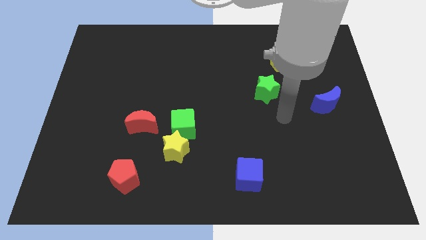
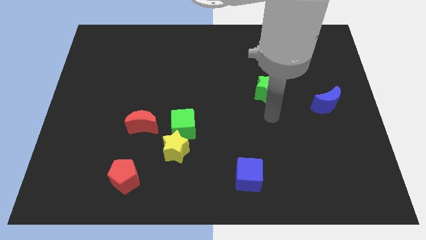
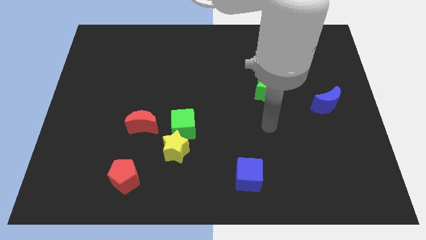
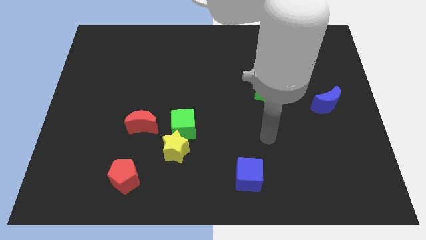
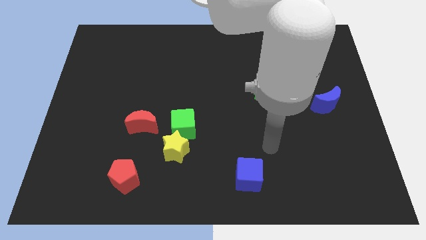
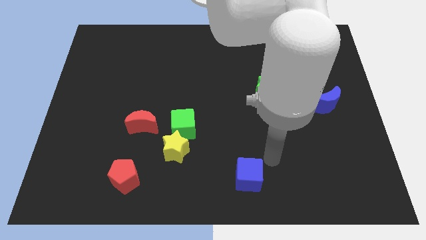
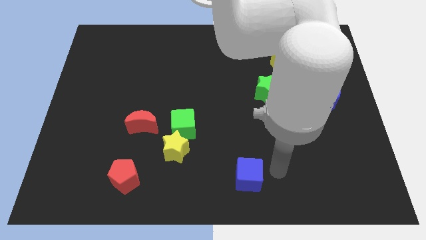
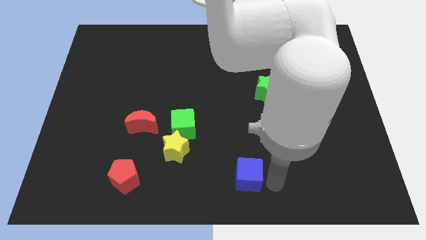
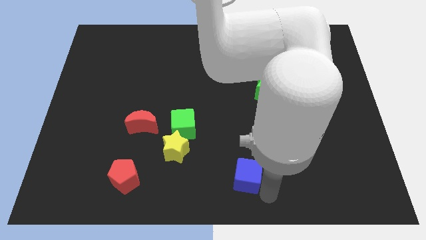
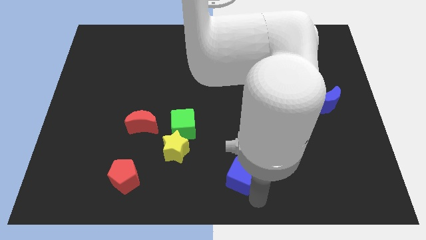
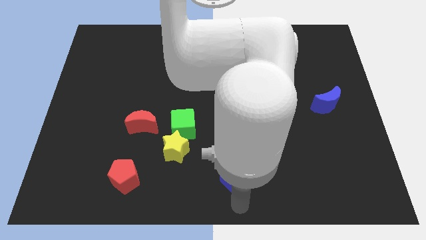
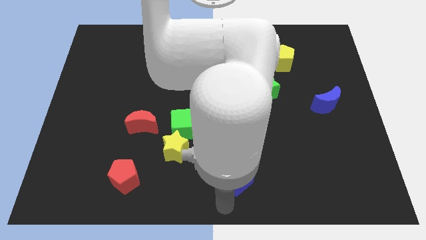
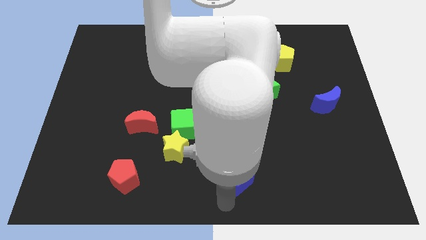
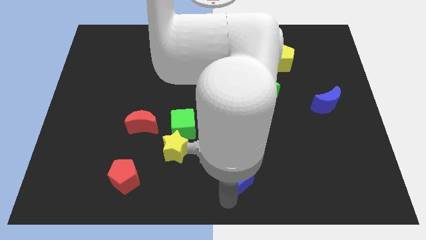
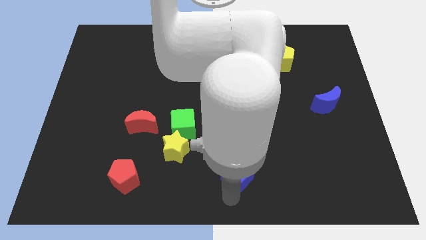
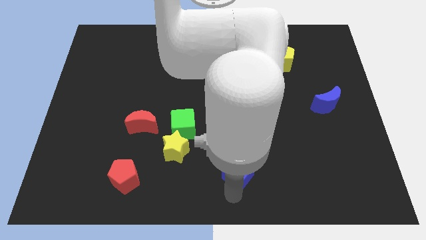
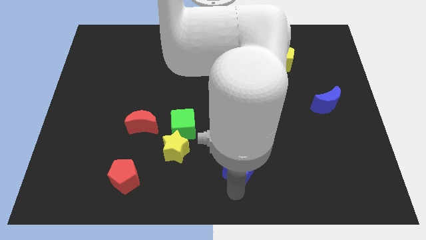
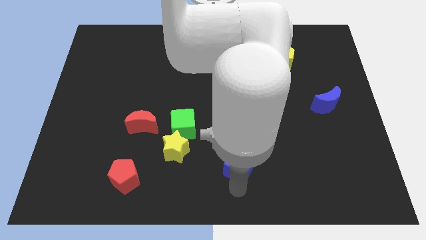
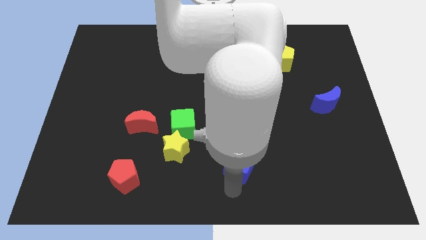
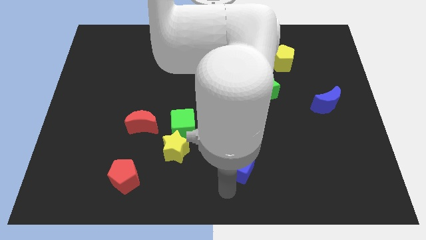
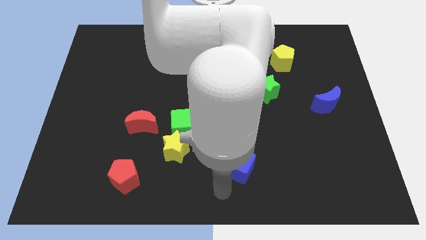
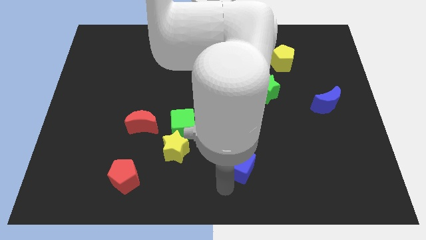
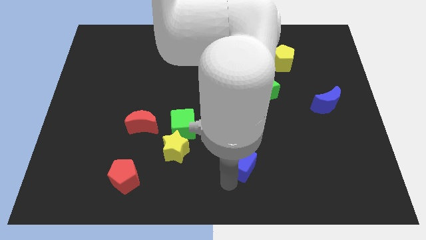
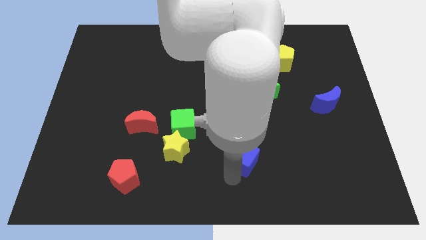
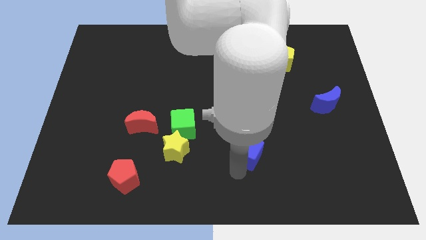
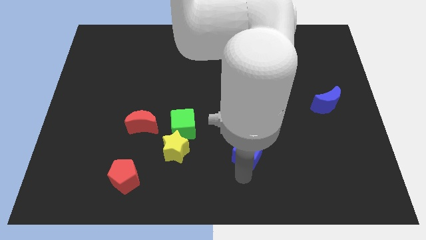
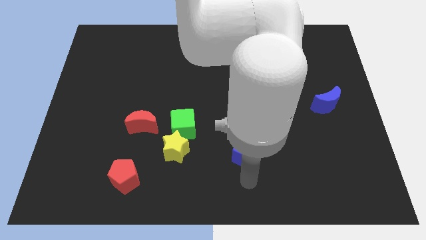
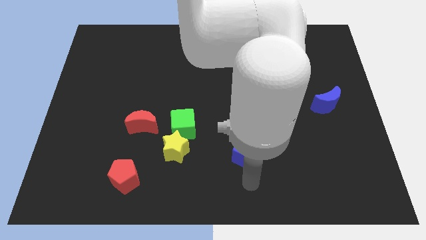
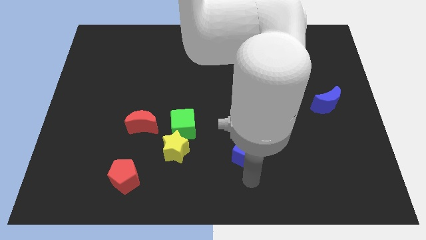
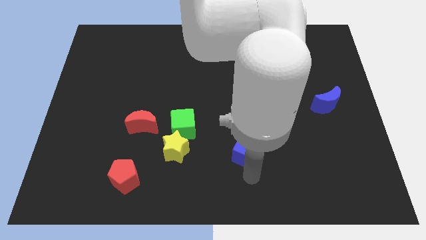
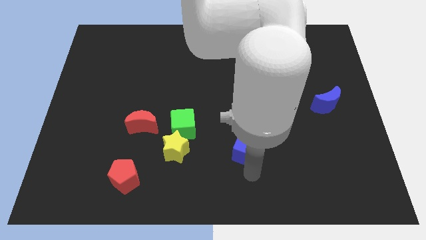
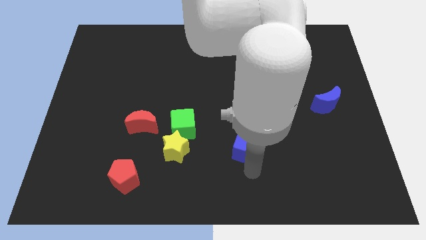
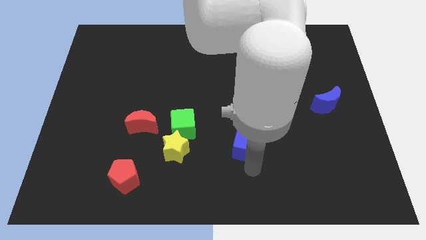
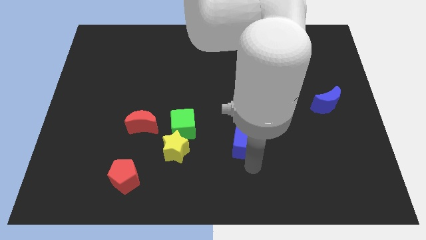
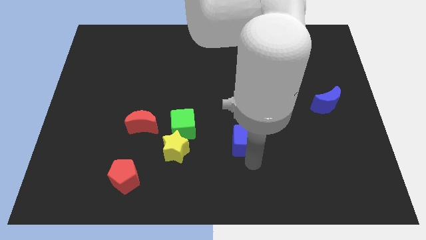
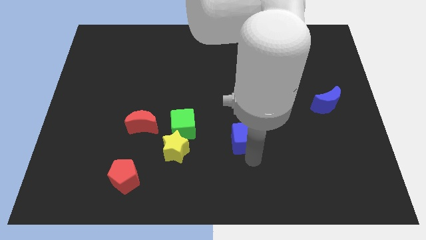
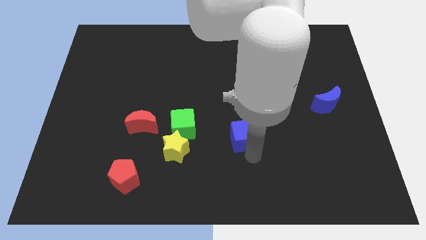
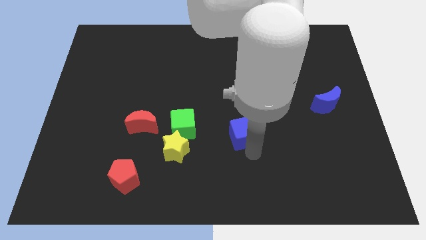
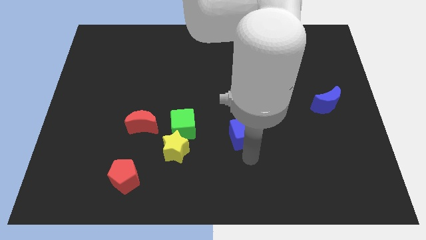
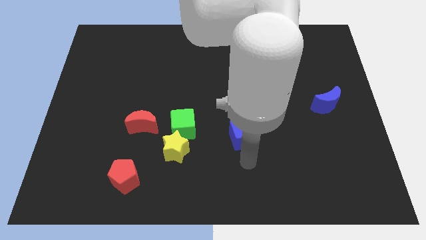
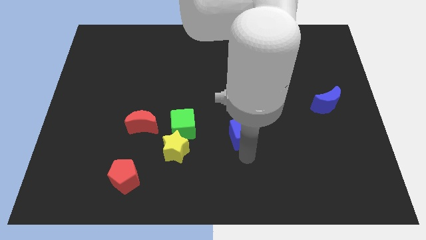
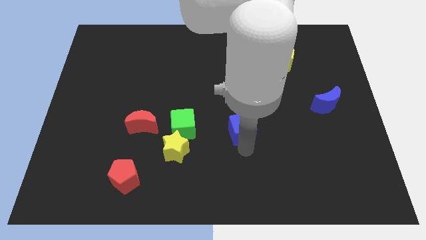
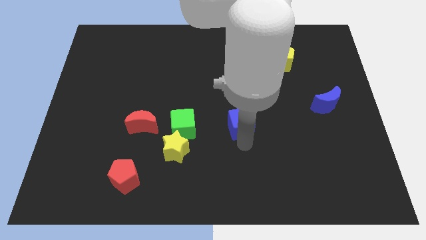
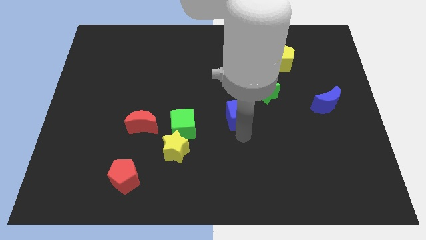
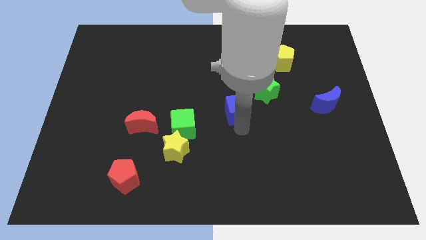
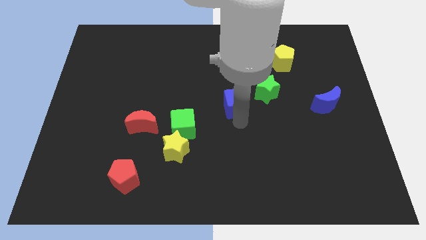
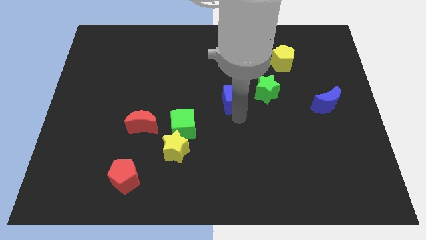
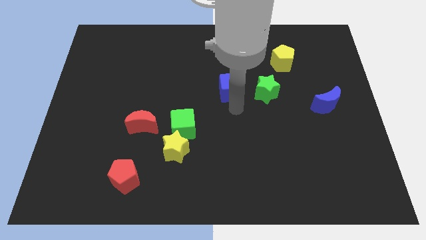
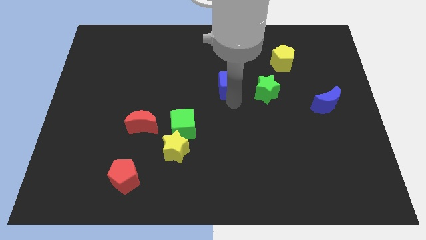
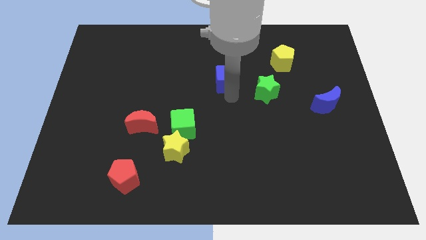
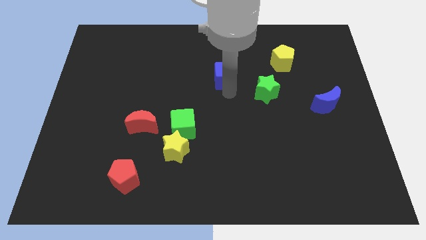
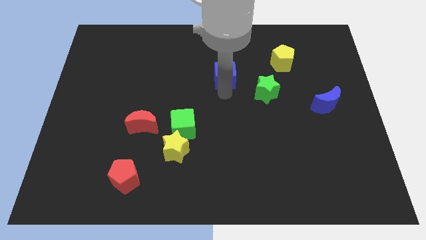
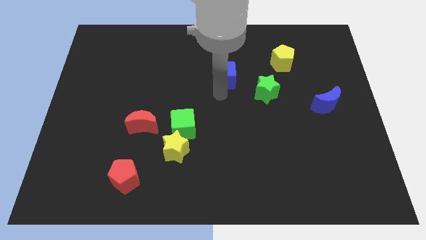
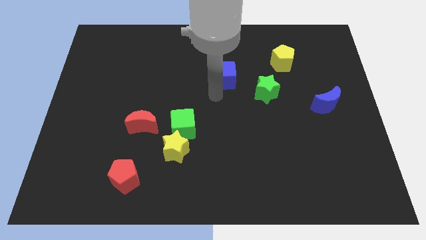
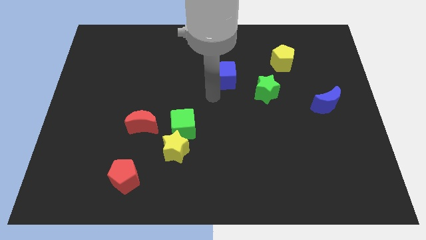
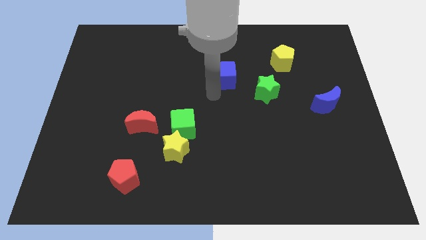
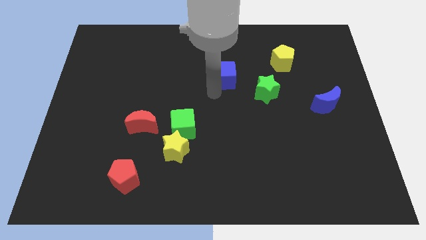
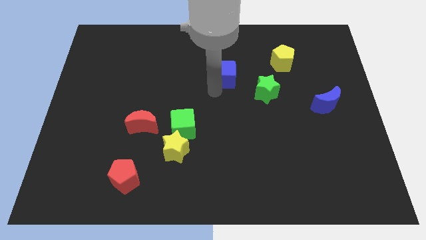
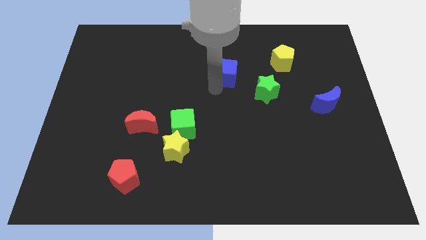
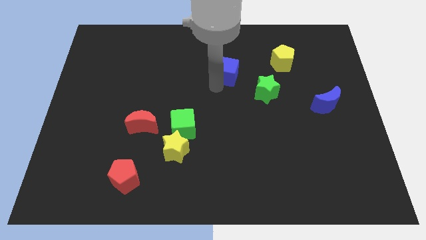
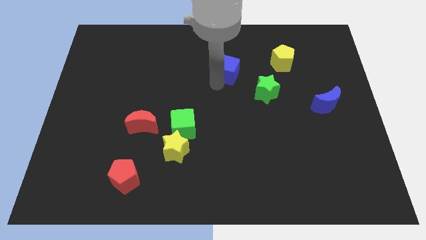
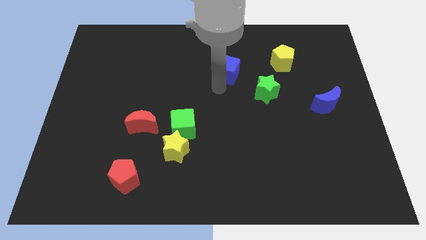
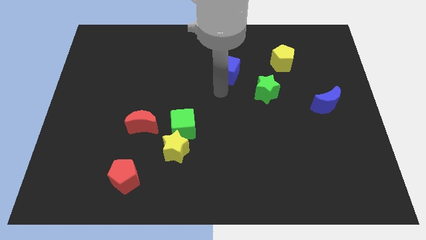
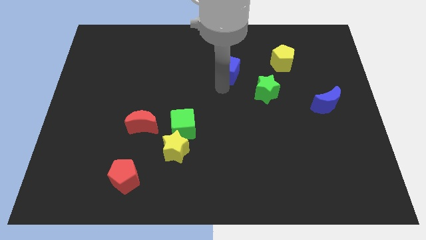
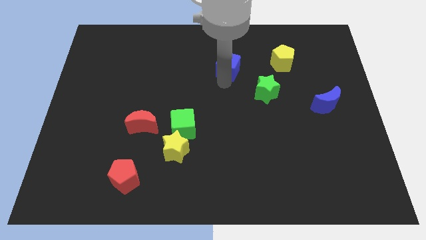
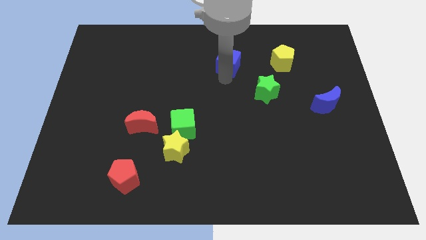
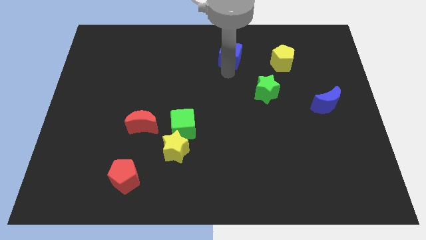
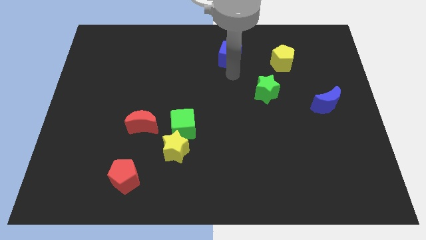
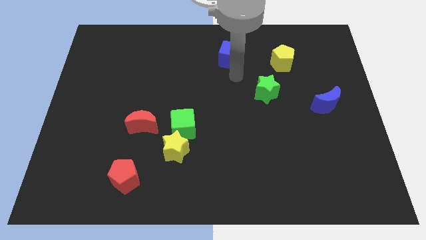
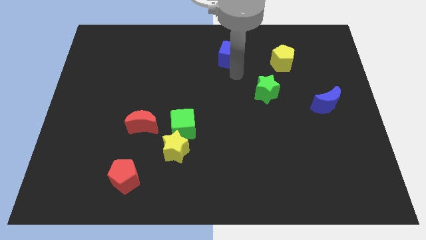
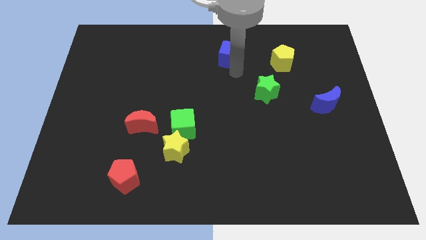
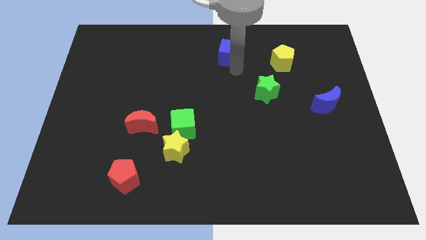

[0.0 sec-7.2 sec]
push the blue cube to the top side
